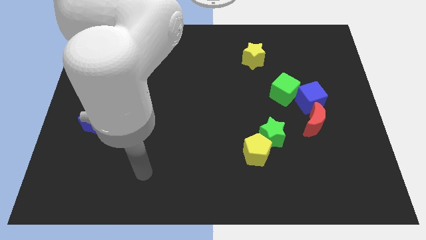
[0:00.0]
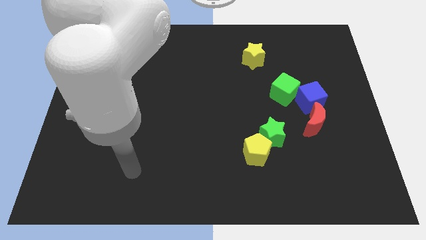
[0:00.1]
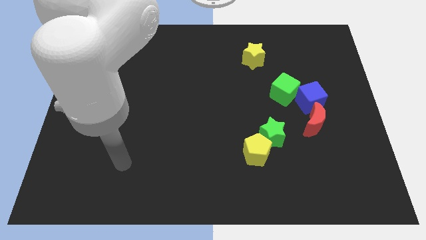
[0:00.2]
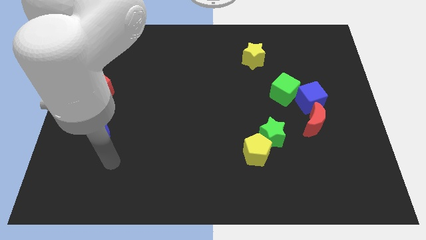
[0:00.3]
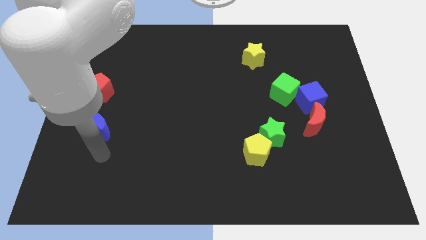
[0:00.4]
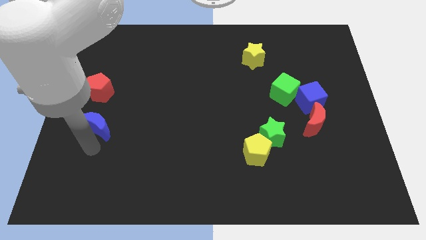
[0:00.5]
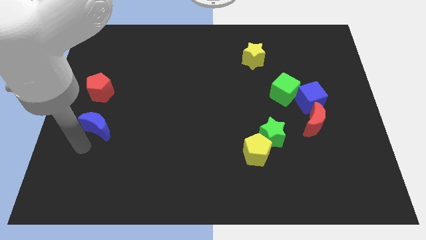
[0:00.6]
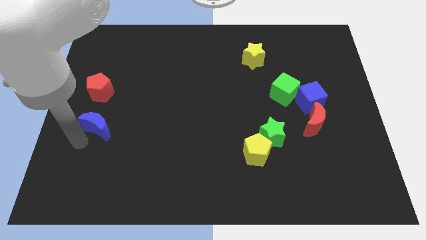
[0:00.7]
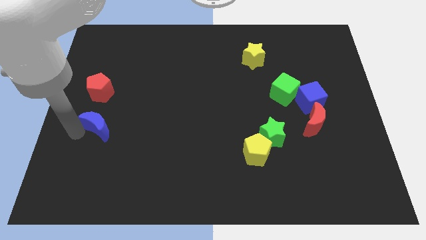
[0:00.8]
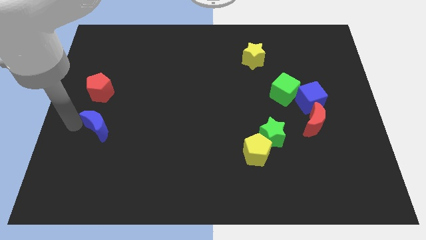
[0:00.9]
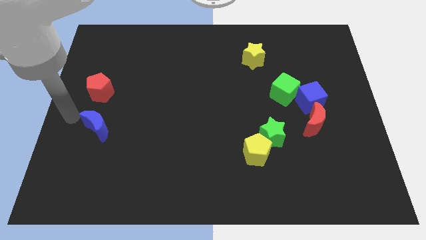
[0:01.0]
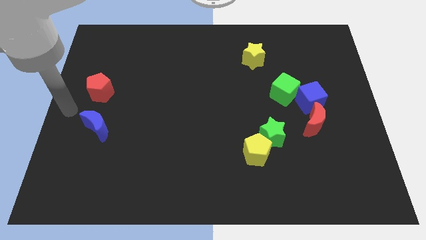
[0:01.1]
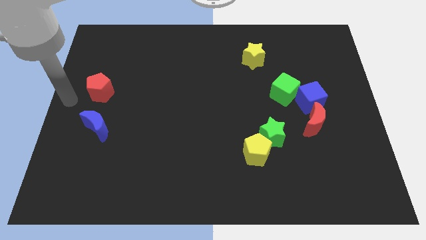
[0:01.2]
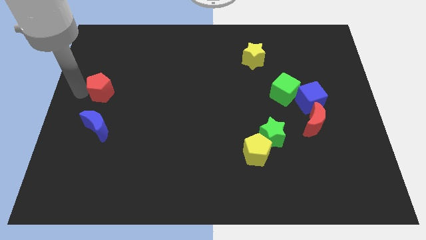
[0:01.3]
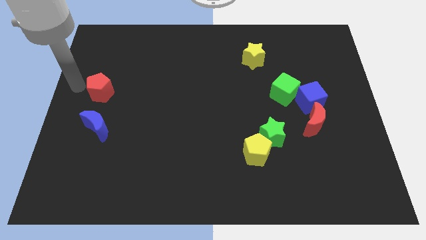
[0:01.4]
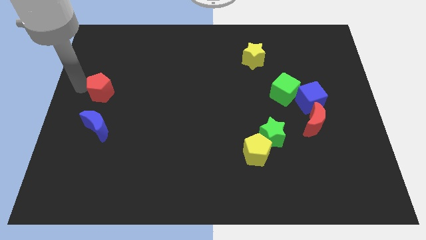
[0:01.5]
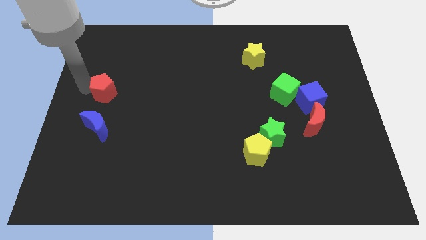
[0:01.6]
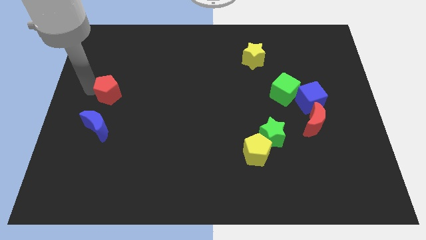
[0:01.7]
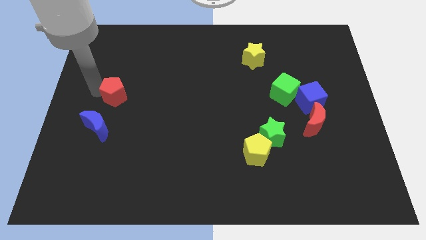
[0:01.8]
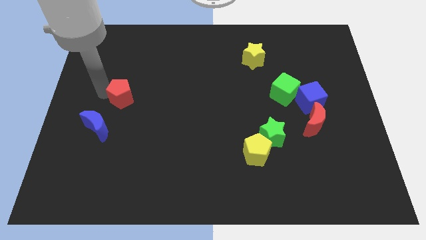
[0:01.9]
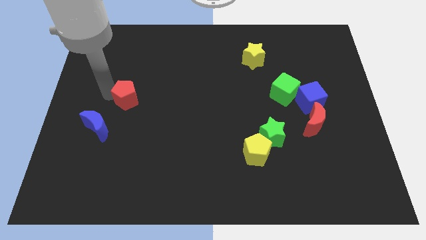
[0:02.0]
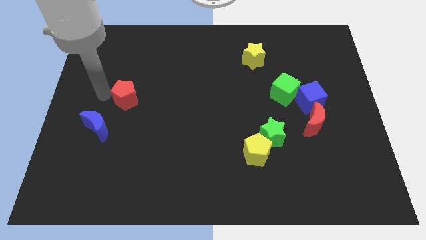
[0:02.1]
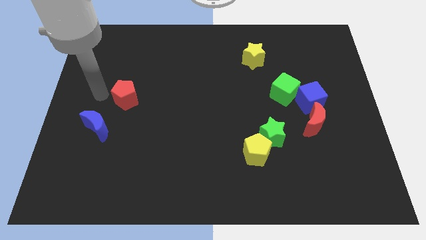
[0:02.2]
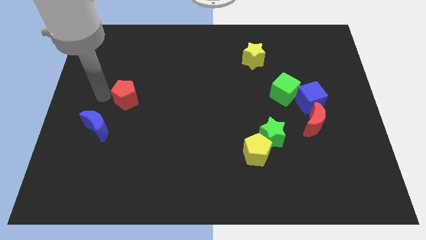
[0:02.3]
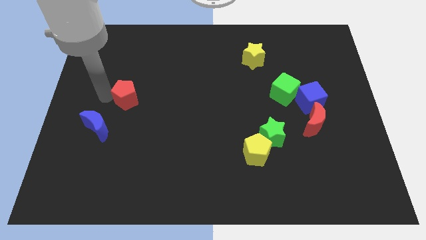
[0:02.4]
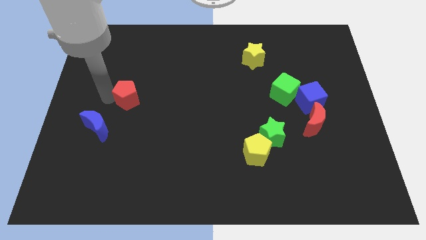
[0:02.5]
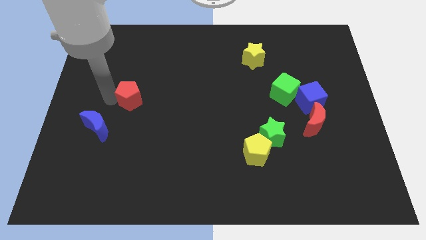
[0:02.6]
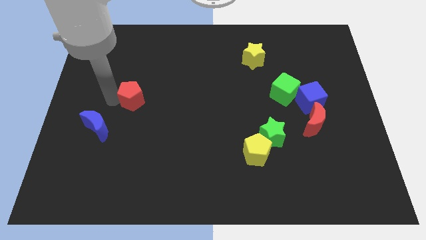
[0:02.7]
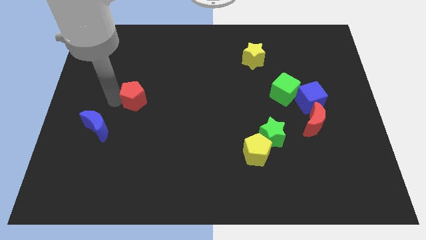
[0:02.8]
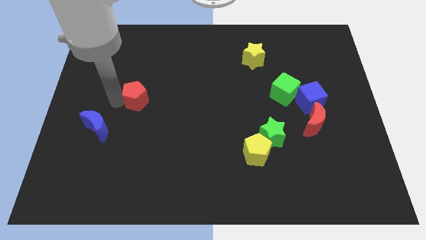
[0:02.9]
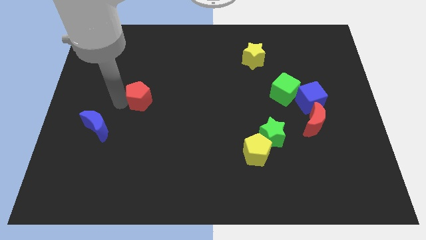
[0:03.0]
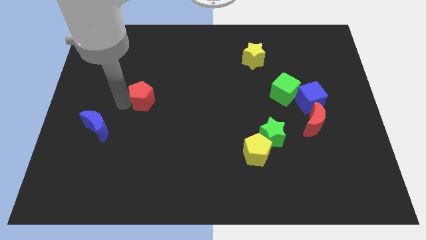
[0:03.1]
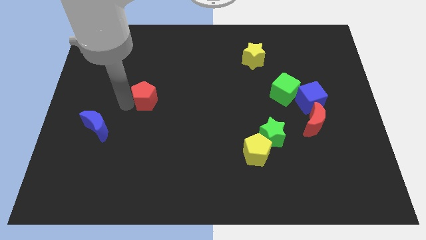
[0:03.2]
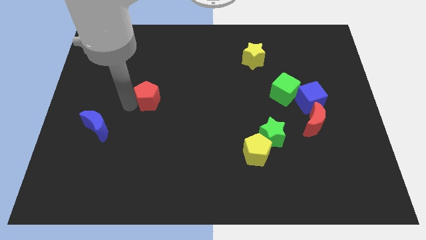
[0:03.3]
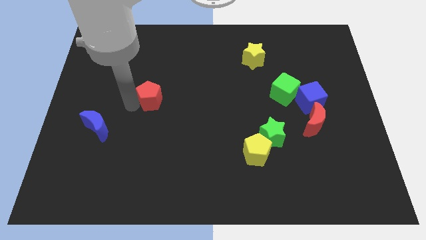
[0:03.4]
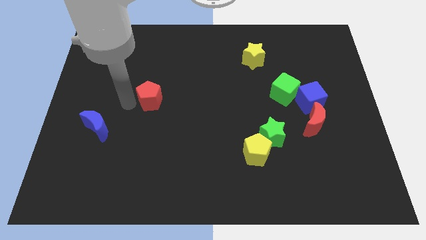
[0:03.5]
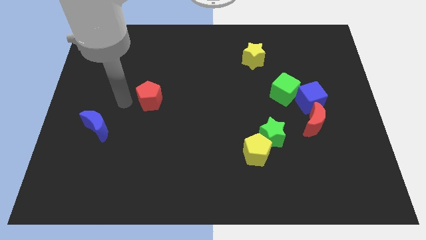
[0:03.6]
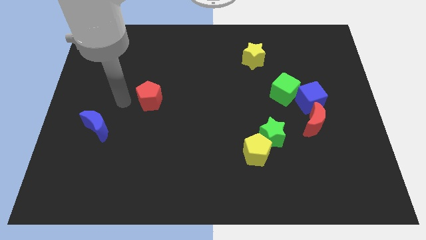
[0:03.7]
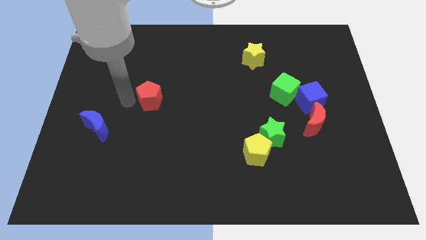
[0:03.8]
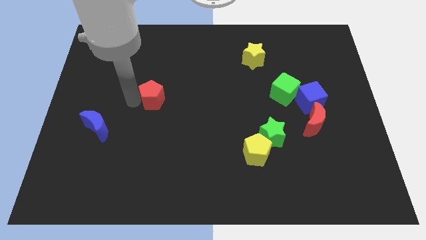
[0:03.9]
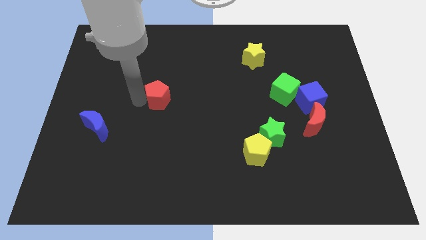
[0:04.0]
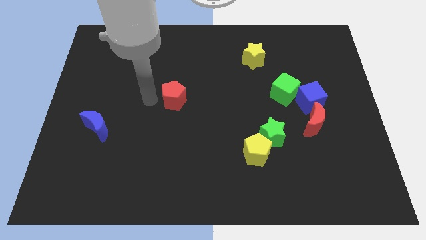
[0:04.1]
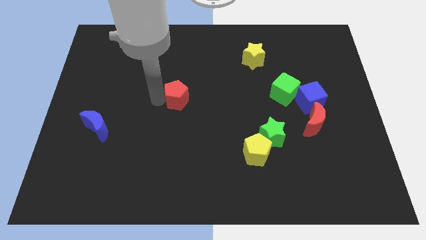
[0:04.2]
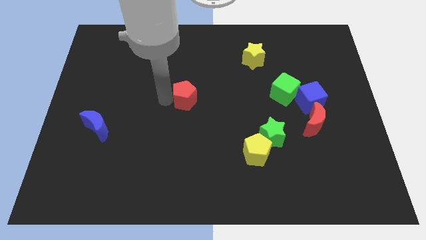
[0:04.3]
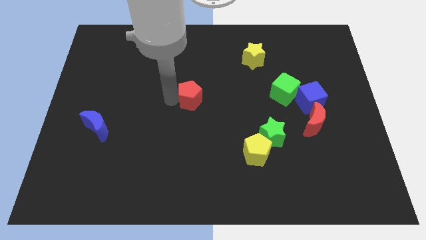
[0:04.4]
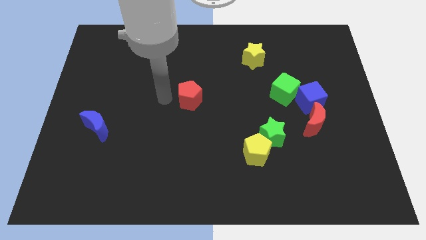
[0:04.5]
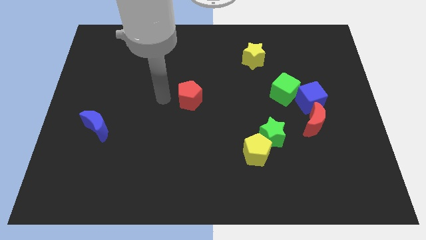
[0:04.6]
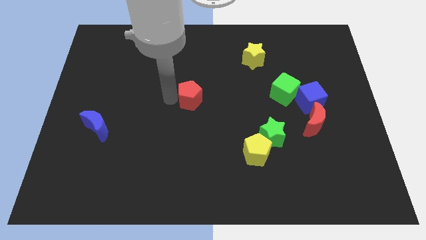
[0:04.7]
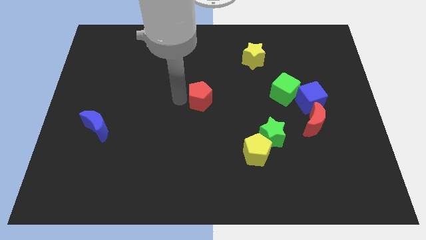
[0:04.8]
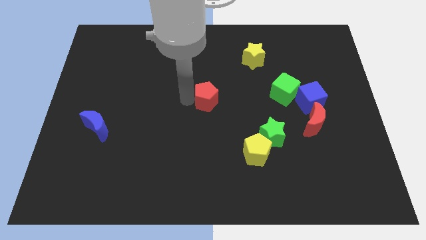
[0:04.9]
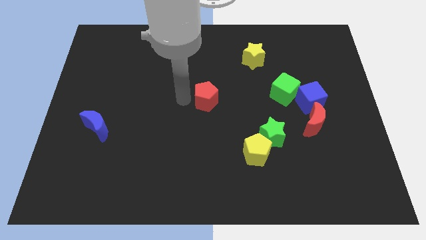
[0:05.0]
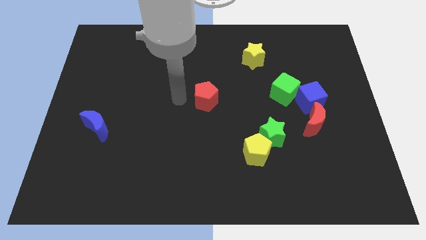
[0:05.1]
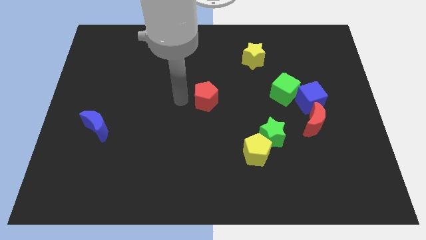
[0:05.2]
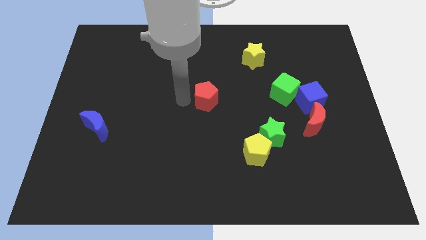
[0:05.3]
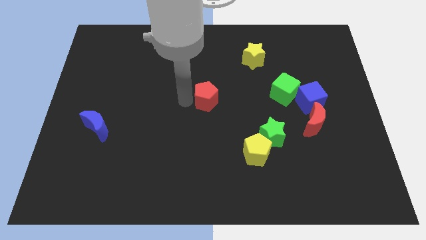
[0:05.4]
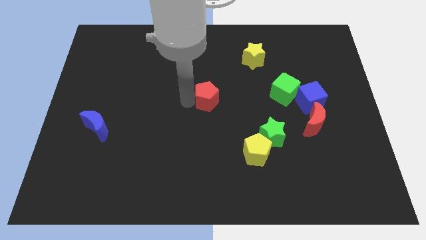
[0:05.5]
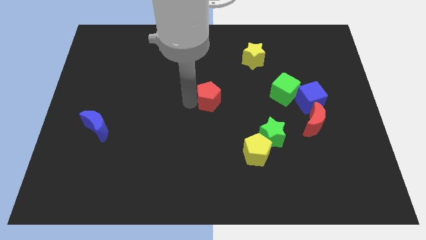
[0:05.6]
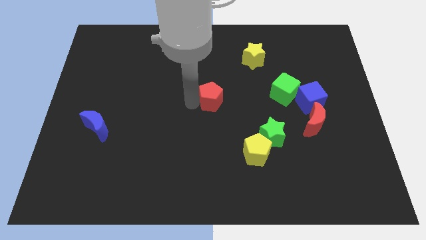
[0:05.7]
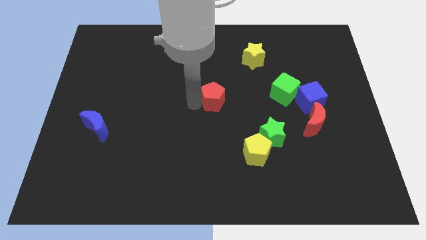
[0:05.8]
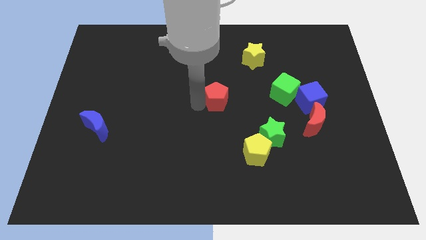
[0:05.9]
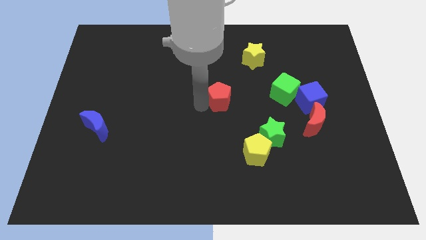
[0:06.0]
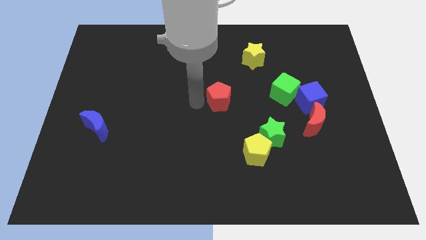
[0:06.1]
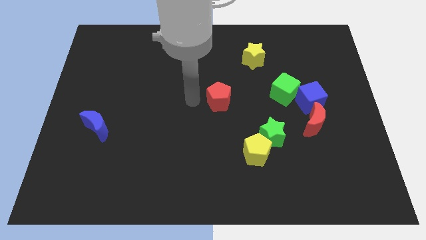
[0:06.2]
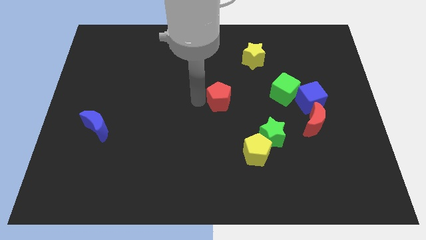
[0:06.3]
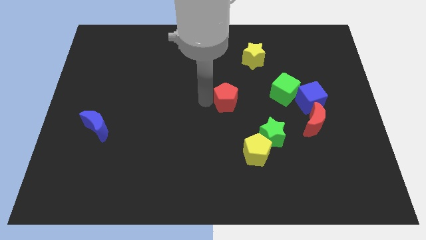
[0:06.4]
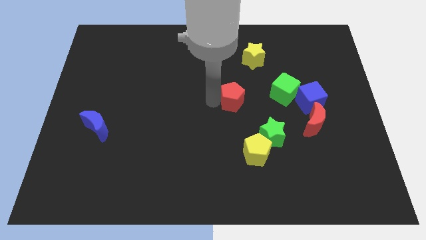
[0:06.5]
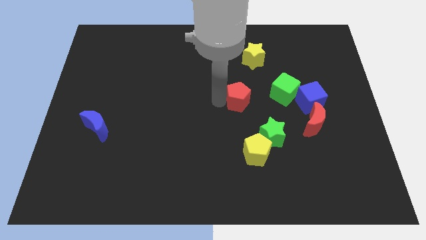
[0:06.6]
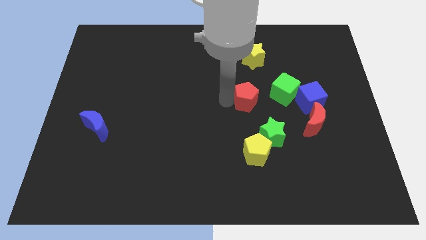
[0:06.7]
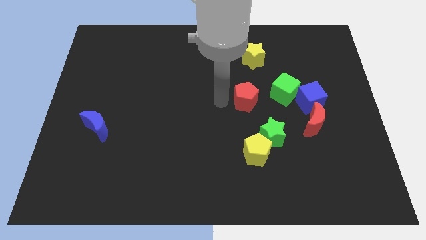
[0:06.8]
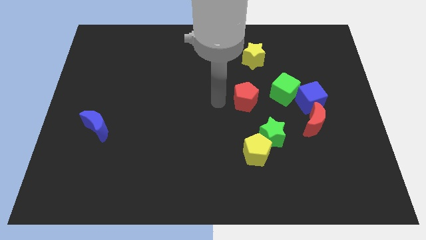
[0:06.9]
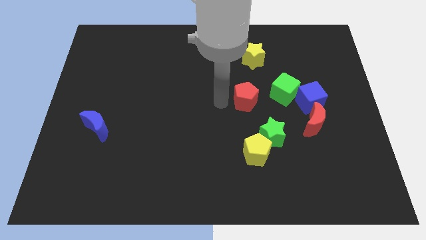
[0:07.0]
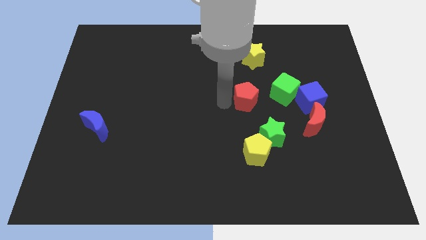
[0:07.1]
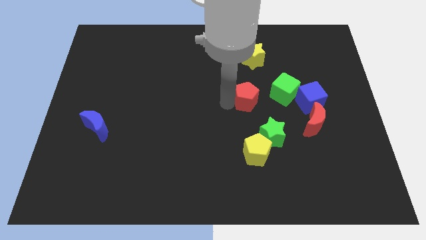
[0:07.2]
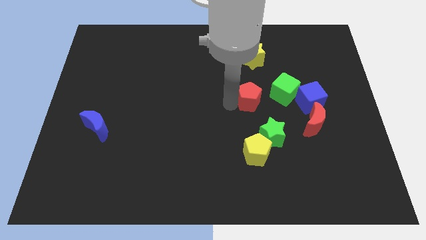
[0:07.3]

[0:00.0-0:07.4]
put the red pentagon to the top of the green star

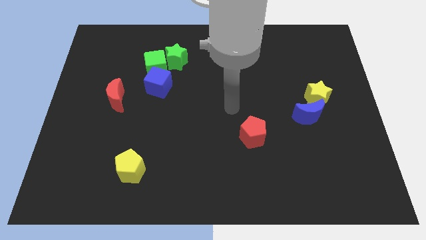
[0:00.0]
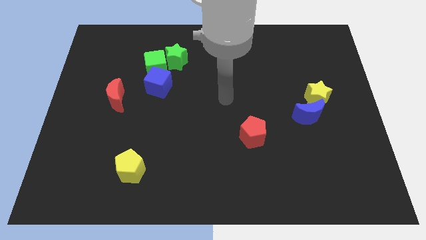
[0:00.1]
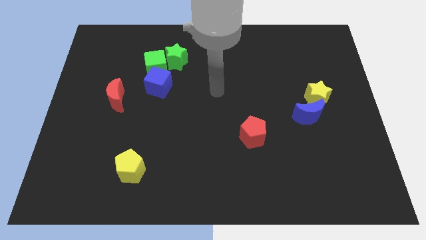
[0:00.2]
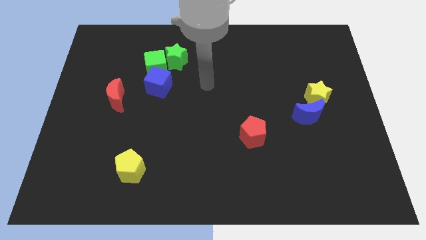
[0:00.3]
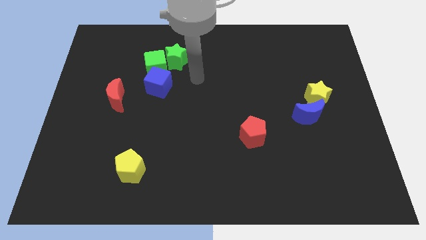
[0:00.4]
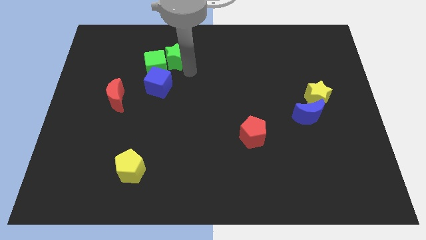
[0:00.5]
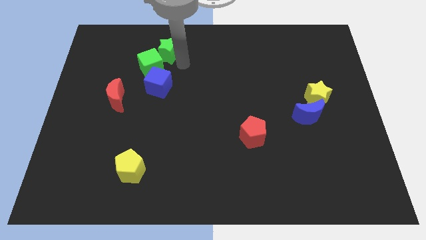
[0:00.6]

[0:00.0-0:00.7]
slide the green cube diagonally up and to the right of the red moon
